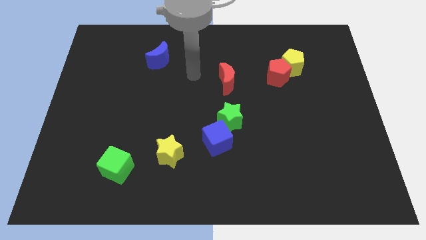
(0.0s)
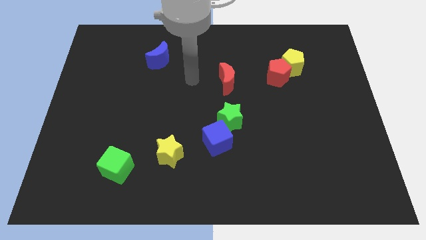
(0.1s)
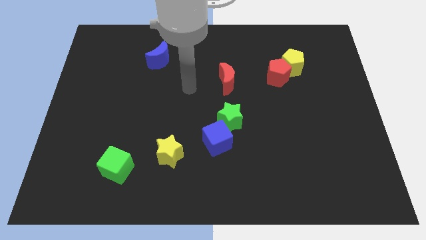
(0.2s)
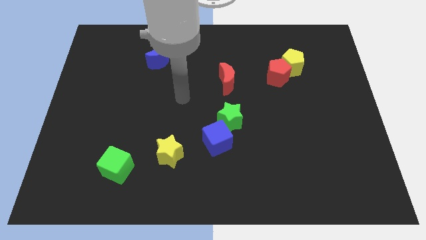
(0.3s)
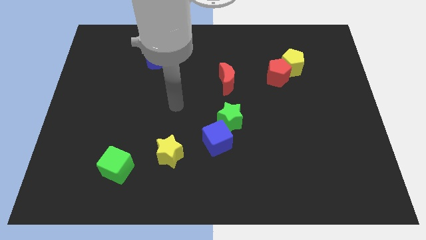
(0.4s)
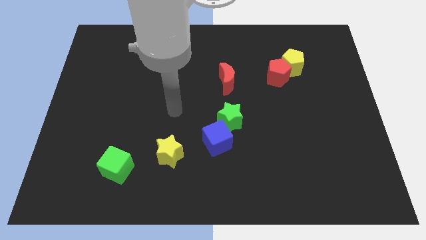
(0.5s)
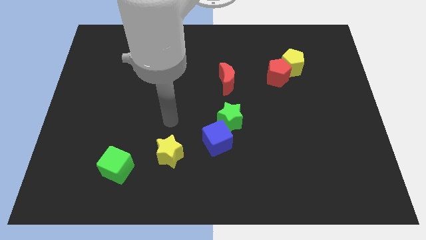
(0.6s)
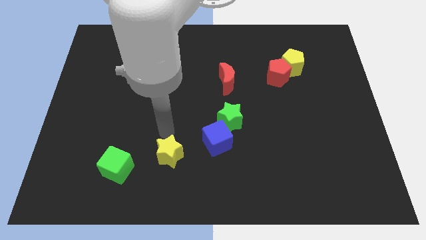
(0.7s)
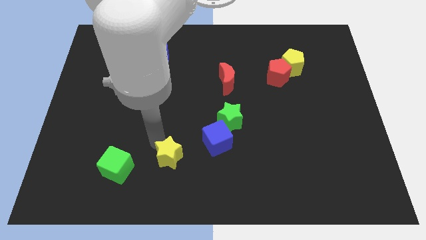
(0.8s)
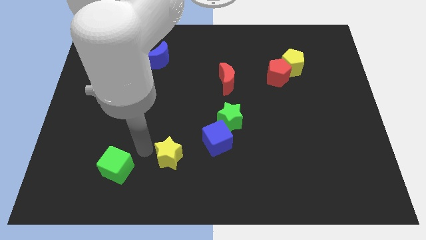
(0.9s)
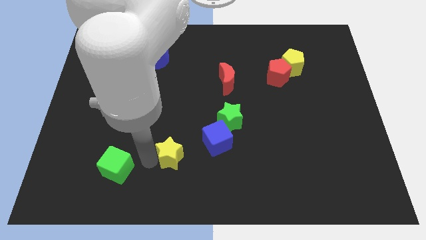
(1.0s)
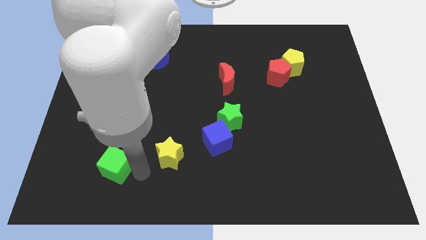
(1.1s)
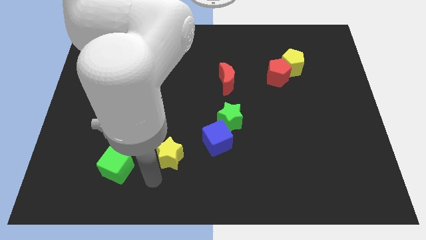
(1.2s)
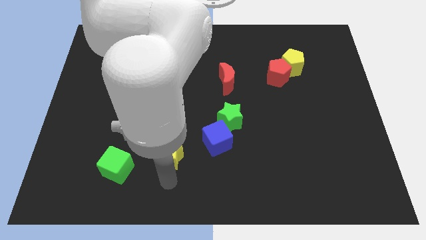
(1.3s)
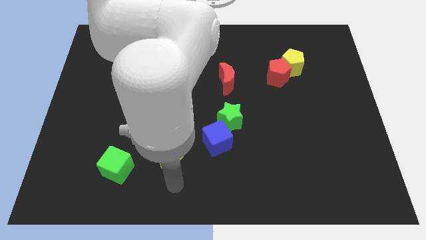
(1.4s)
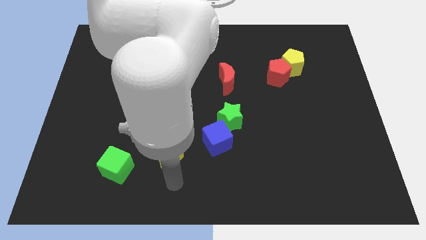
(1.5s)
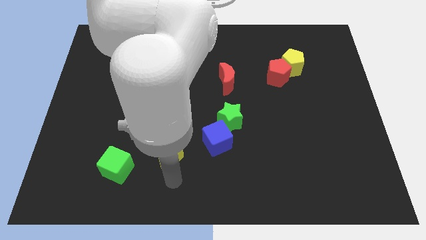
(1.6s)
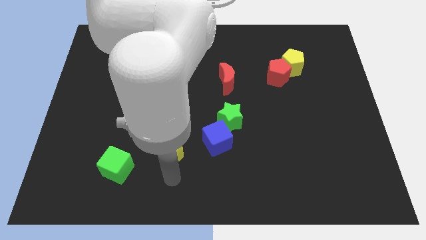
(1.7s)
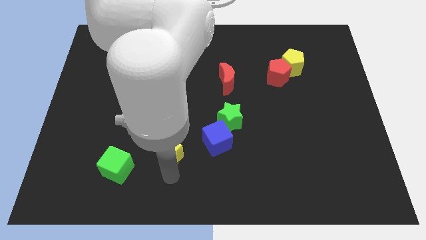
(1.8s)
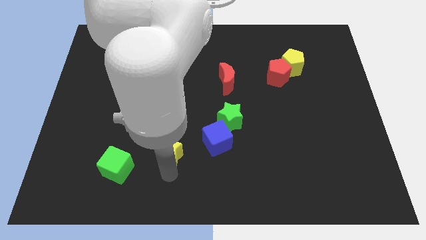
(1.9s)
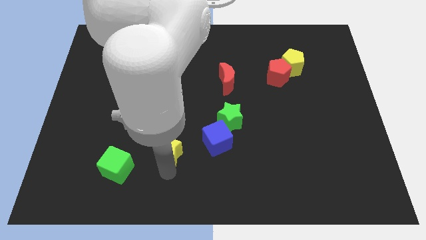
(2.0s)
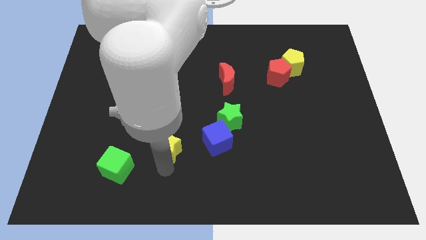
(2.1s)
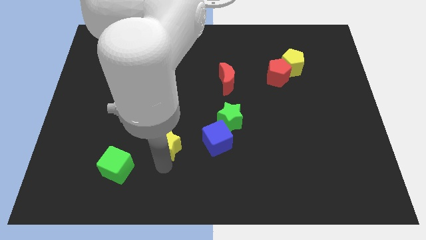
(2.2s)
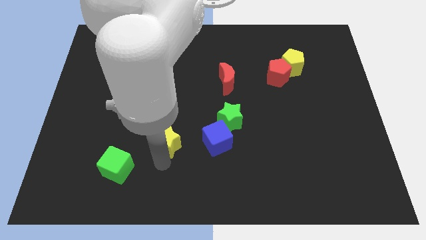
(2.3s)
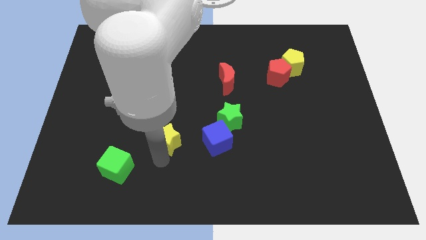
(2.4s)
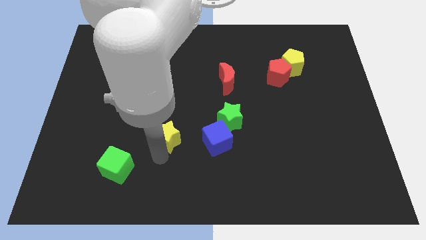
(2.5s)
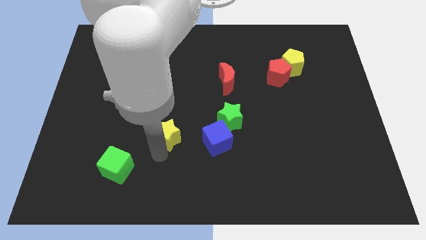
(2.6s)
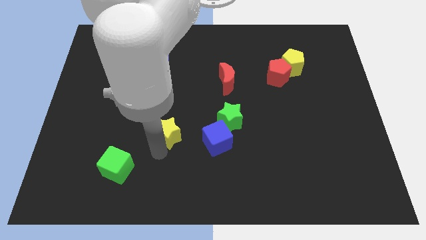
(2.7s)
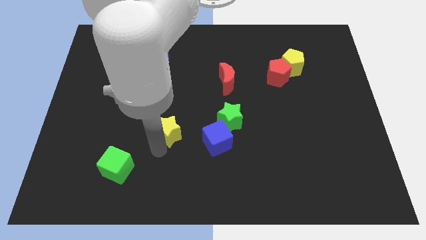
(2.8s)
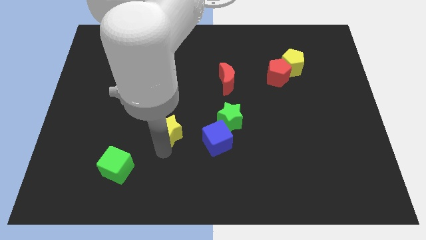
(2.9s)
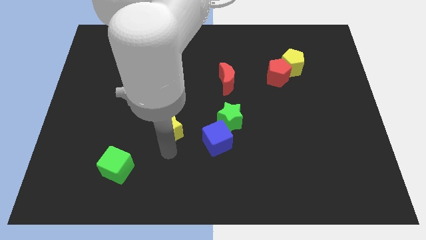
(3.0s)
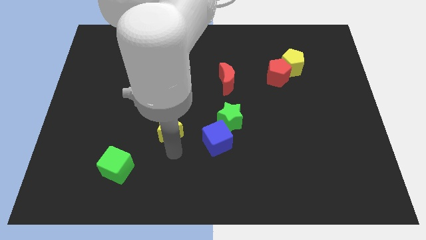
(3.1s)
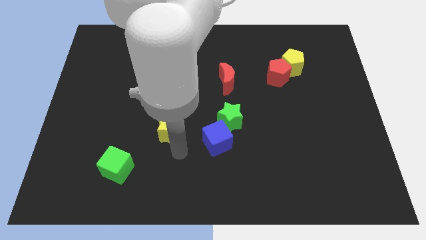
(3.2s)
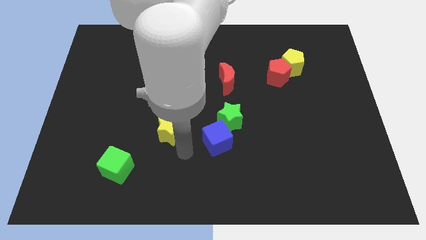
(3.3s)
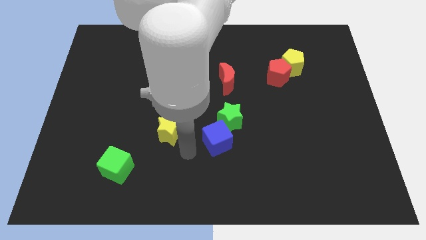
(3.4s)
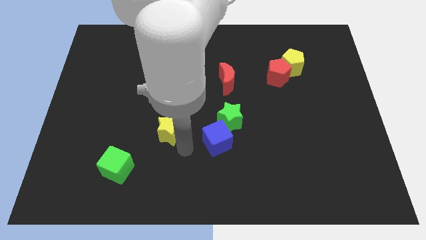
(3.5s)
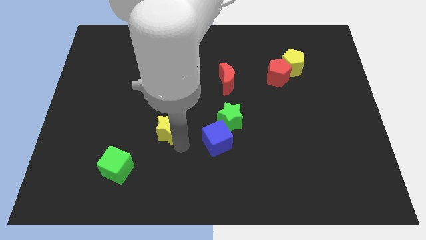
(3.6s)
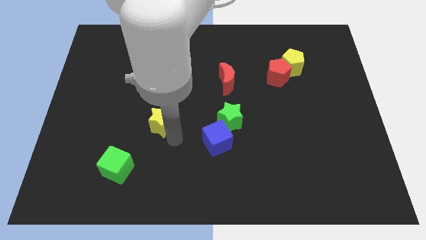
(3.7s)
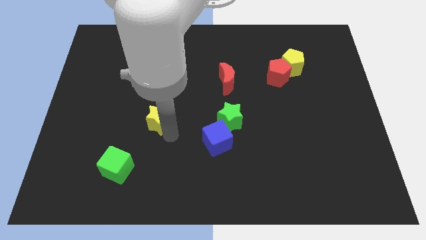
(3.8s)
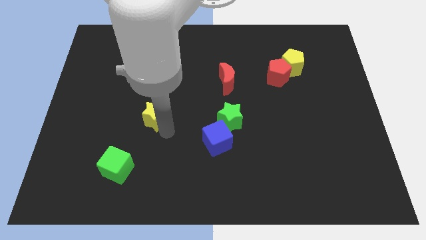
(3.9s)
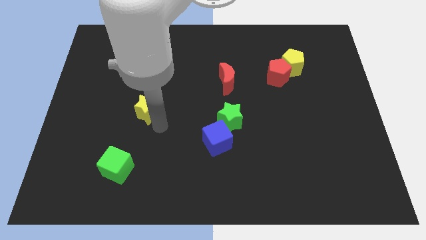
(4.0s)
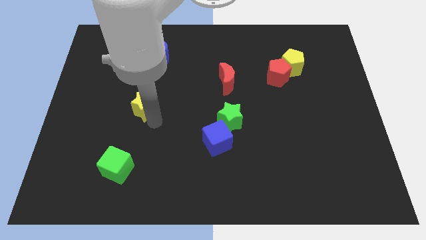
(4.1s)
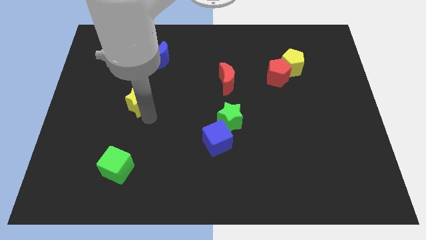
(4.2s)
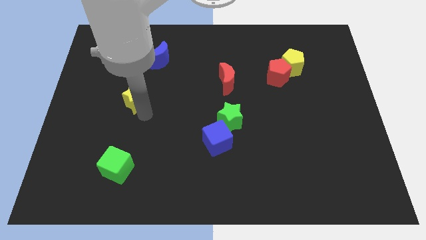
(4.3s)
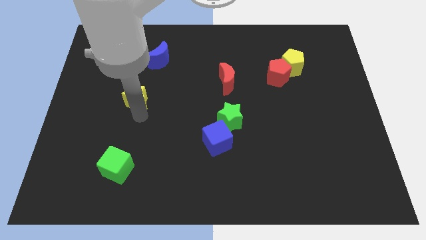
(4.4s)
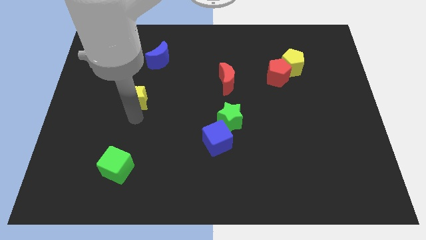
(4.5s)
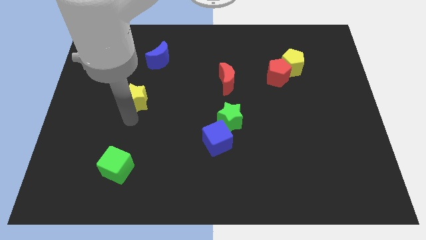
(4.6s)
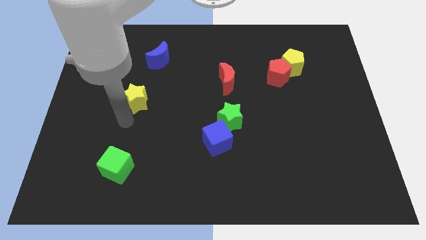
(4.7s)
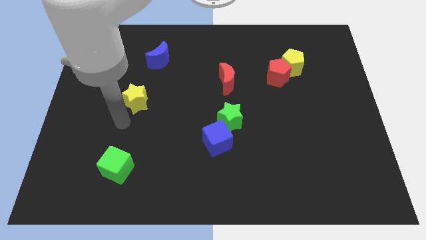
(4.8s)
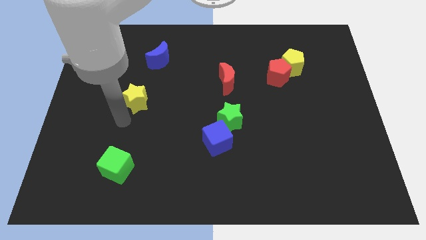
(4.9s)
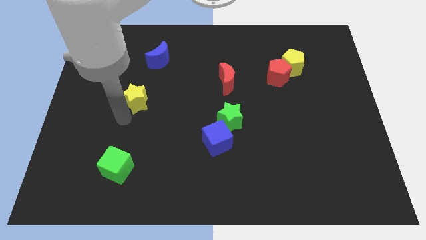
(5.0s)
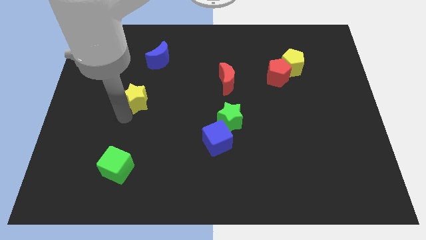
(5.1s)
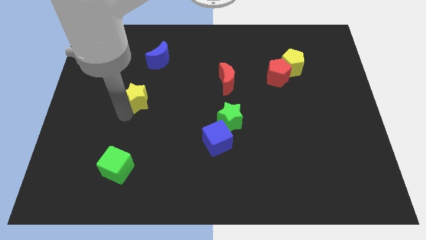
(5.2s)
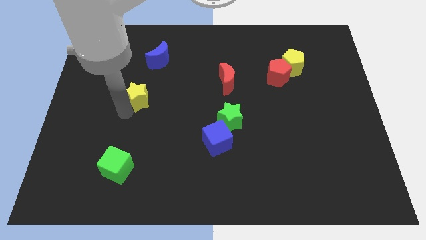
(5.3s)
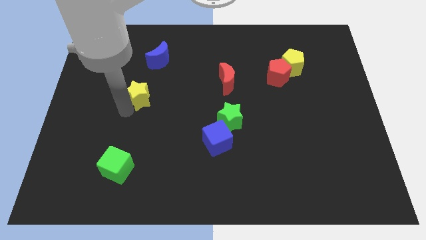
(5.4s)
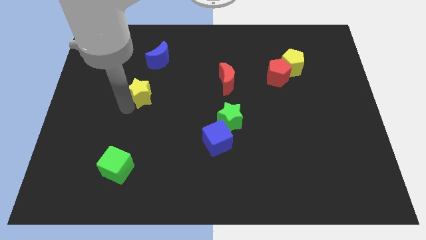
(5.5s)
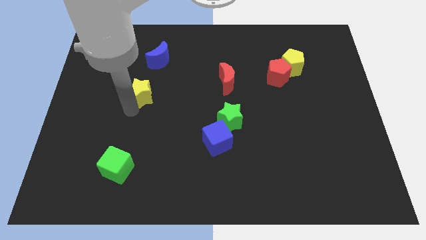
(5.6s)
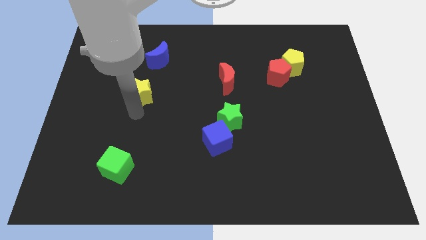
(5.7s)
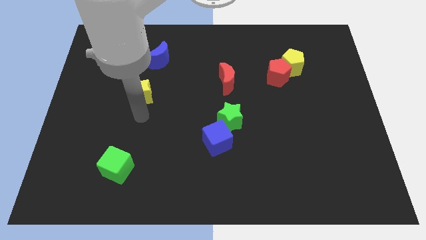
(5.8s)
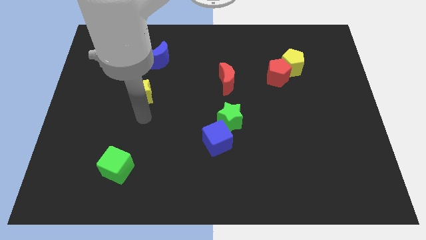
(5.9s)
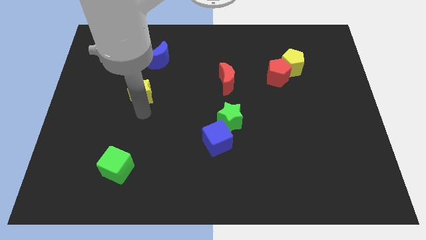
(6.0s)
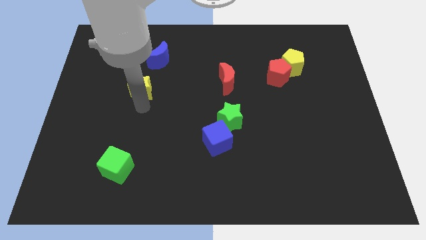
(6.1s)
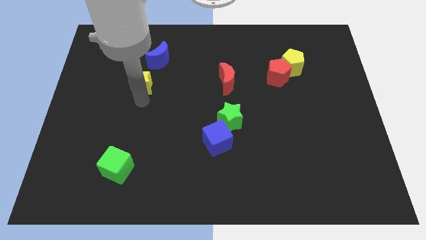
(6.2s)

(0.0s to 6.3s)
slide the yellow star to the bottom left of the blue moon
